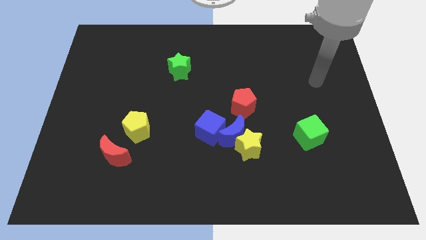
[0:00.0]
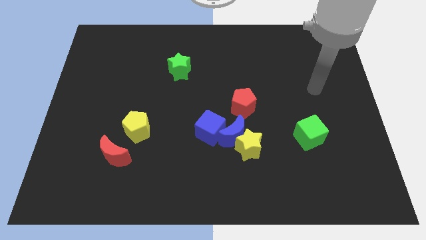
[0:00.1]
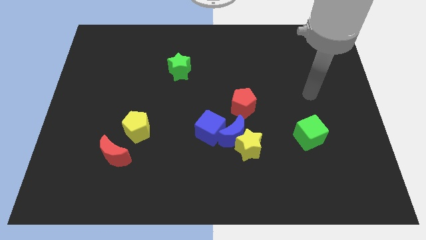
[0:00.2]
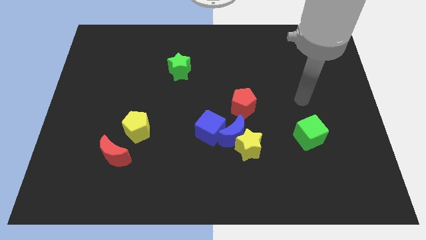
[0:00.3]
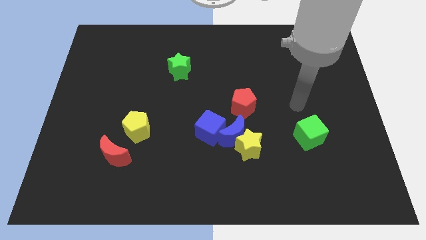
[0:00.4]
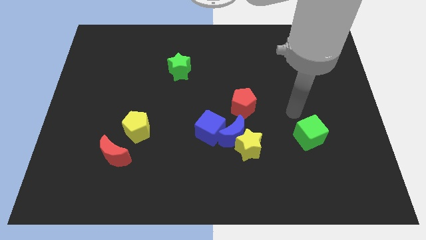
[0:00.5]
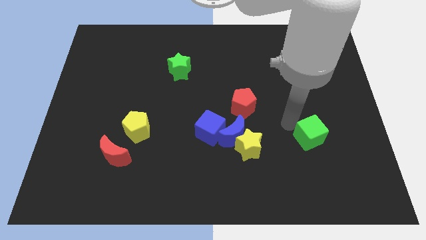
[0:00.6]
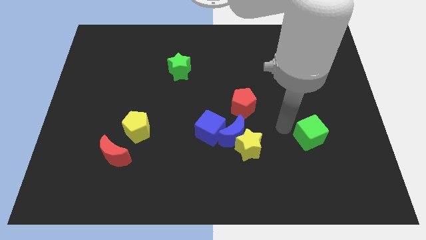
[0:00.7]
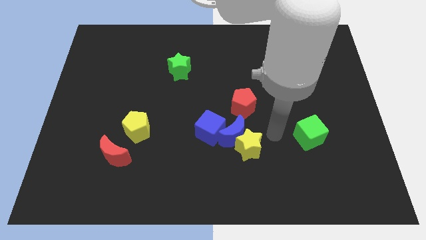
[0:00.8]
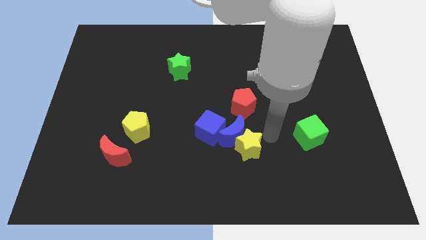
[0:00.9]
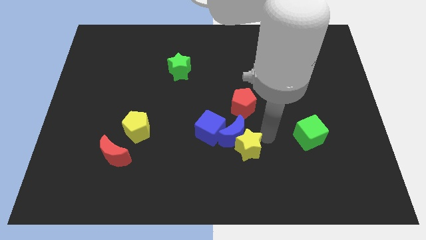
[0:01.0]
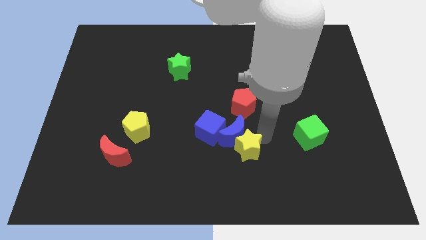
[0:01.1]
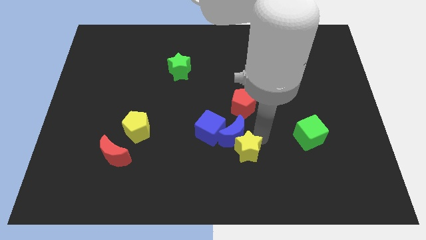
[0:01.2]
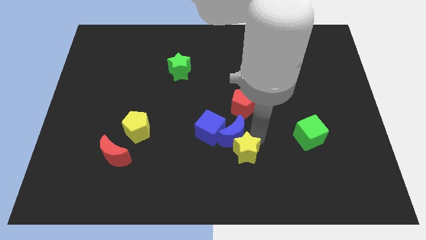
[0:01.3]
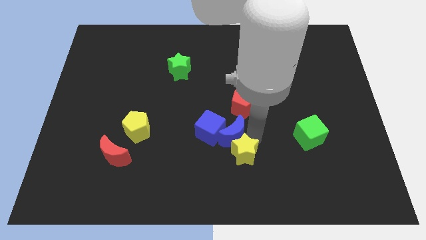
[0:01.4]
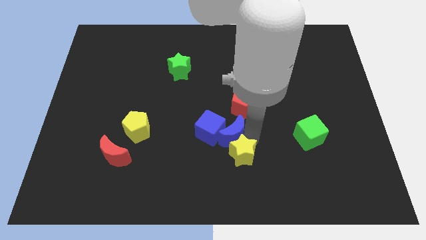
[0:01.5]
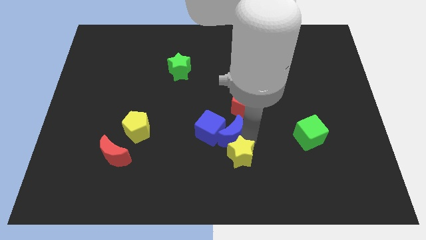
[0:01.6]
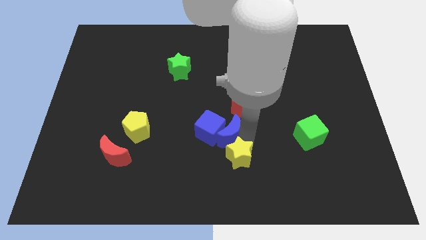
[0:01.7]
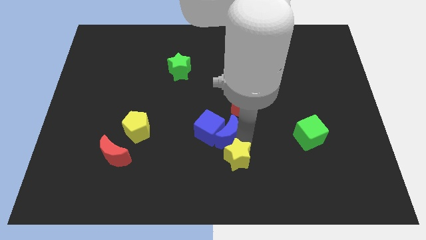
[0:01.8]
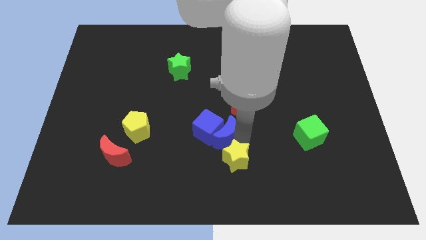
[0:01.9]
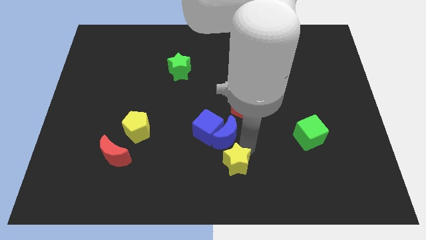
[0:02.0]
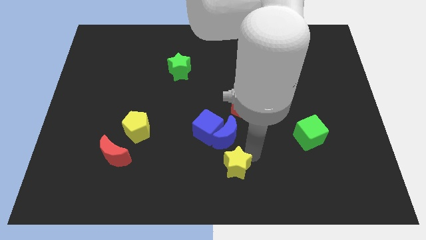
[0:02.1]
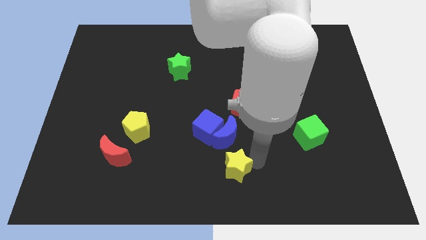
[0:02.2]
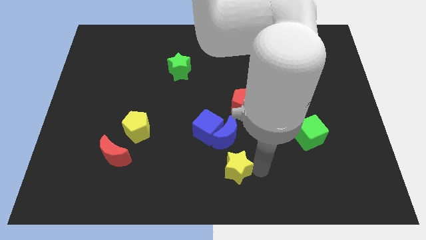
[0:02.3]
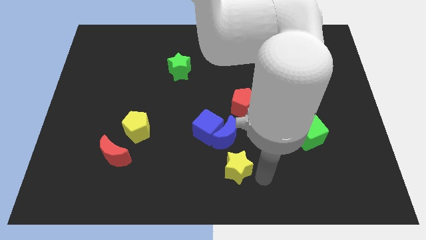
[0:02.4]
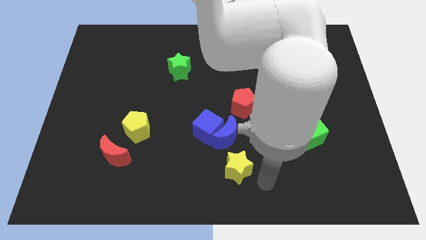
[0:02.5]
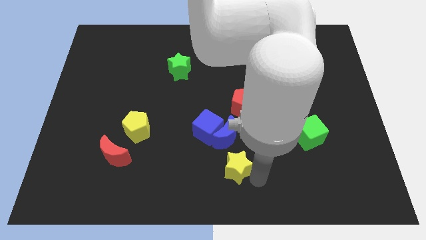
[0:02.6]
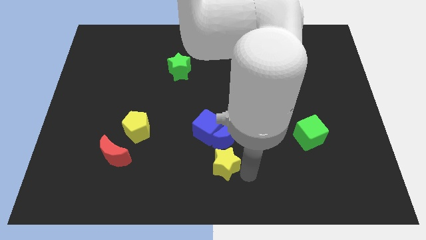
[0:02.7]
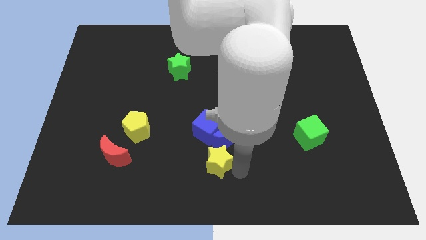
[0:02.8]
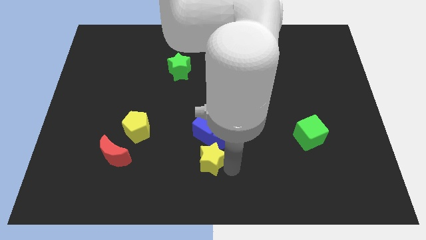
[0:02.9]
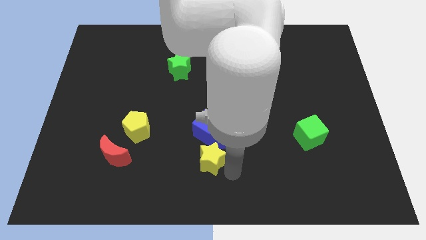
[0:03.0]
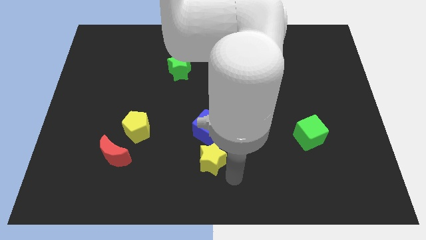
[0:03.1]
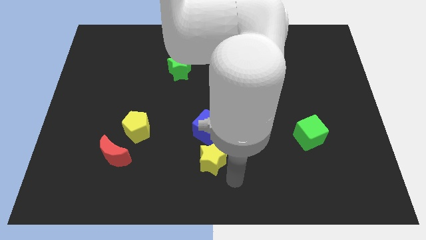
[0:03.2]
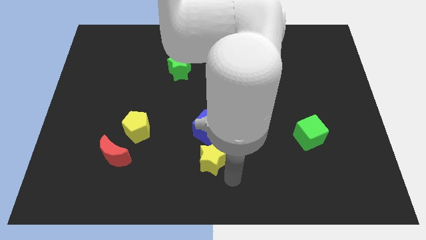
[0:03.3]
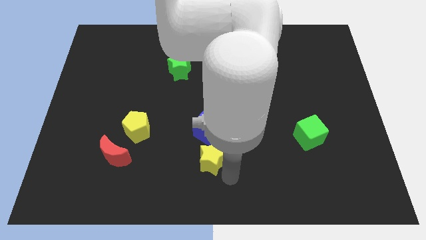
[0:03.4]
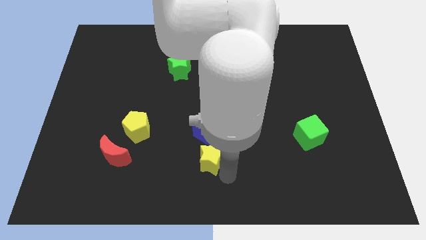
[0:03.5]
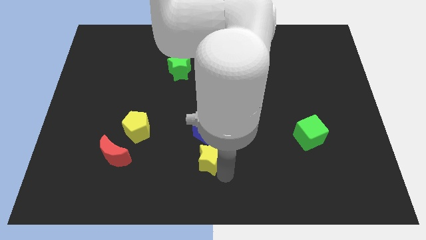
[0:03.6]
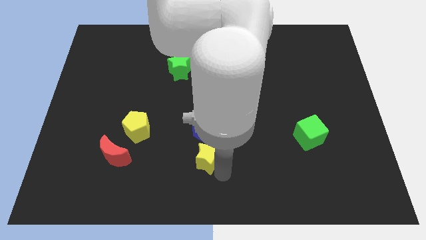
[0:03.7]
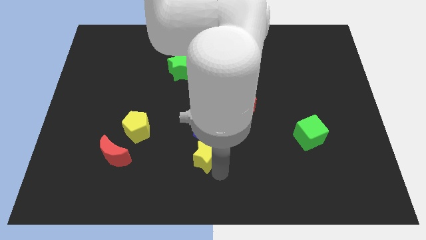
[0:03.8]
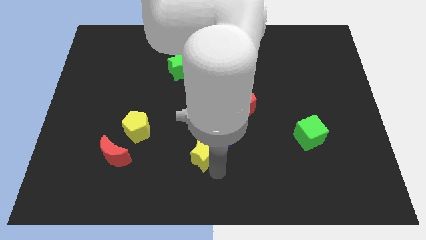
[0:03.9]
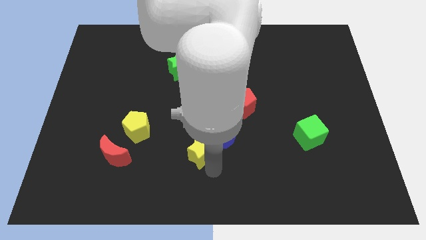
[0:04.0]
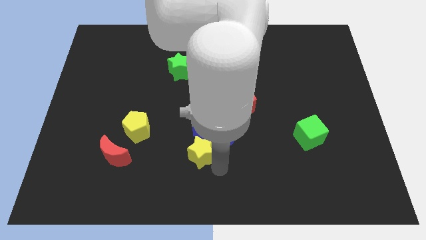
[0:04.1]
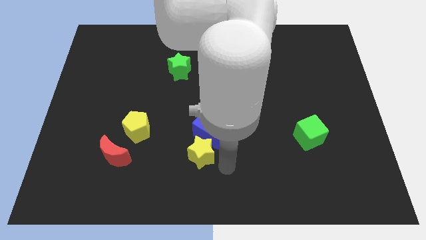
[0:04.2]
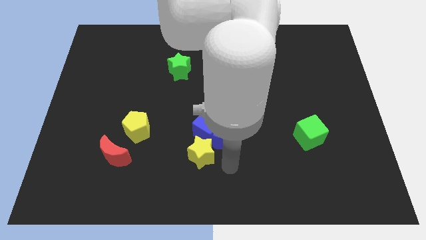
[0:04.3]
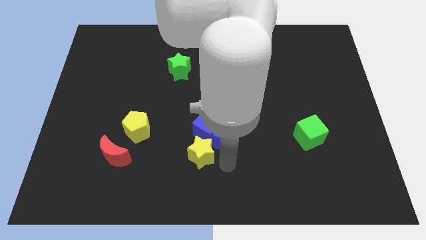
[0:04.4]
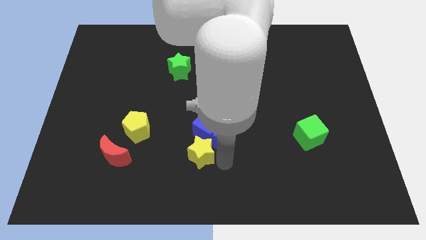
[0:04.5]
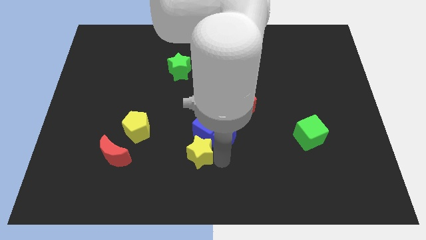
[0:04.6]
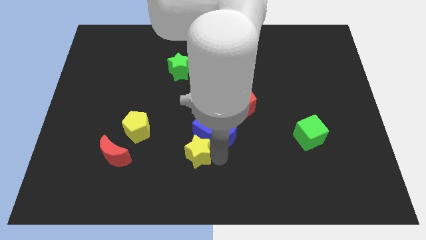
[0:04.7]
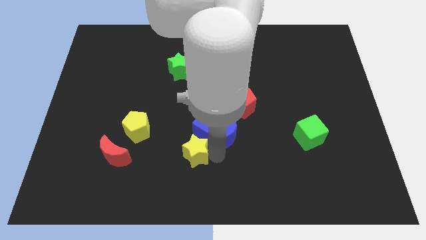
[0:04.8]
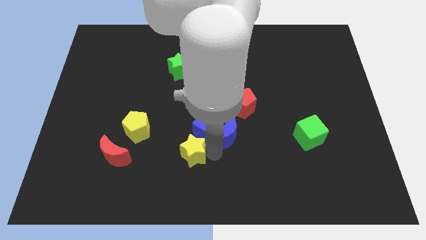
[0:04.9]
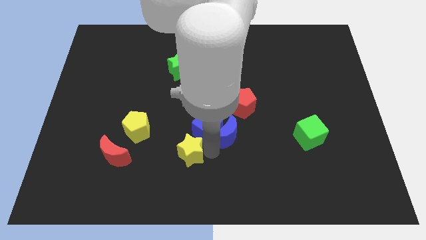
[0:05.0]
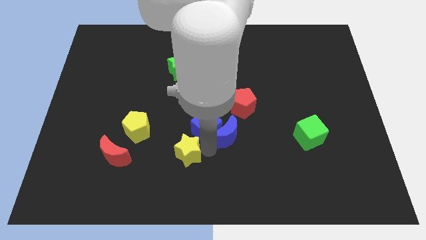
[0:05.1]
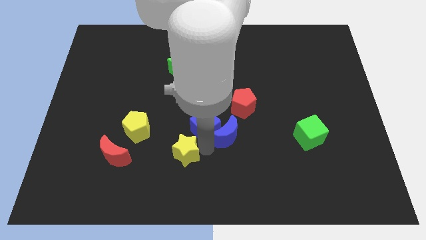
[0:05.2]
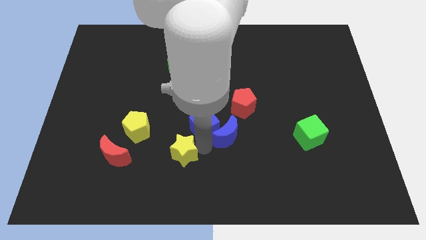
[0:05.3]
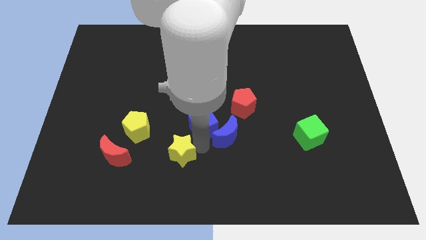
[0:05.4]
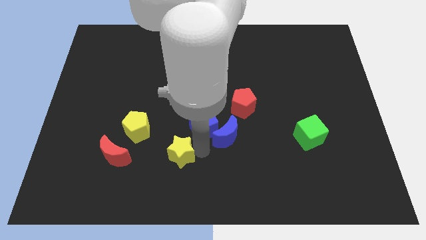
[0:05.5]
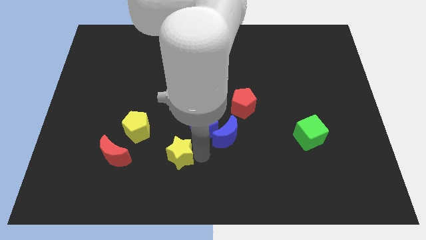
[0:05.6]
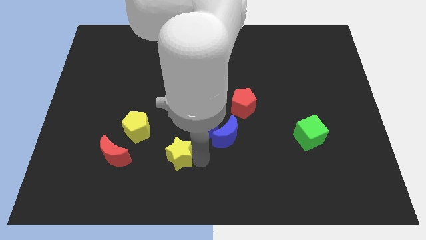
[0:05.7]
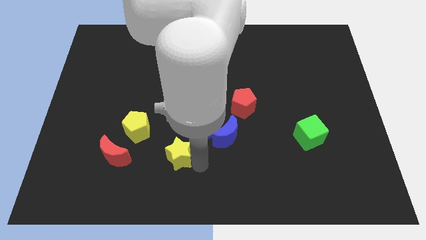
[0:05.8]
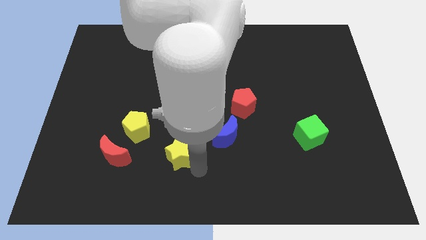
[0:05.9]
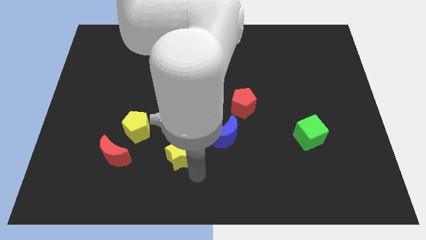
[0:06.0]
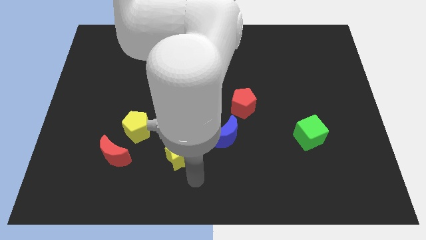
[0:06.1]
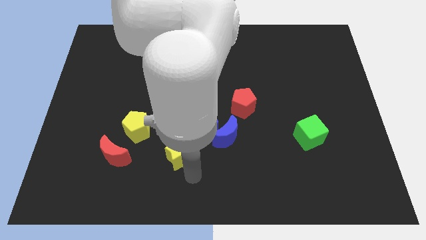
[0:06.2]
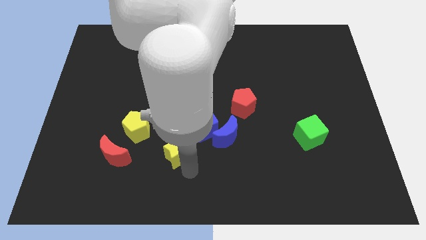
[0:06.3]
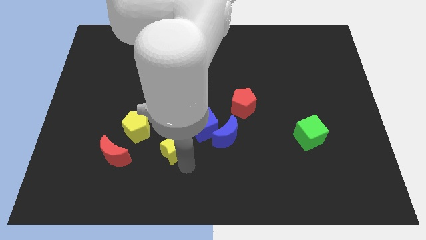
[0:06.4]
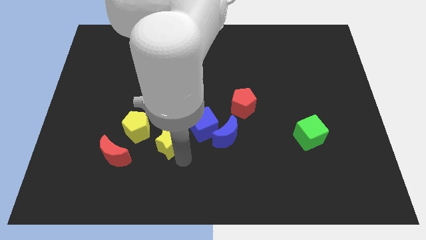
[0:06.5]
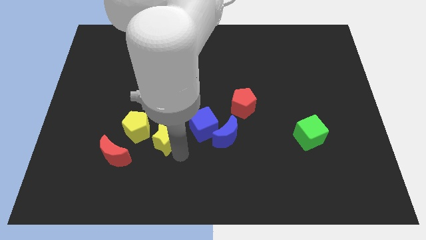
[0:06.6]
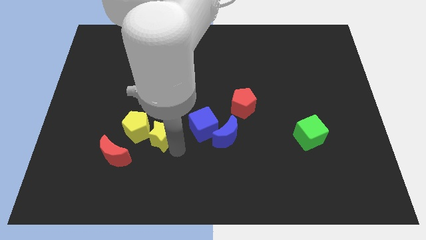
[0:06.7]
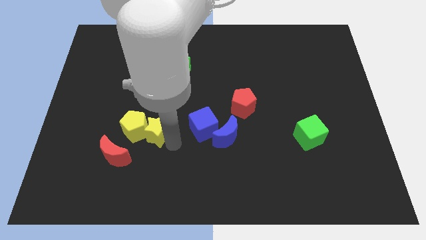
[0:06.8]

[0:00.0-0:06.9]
move the yellow star towards the yellow pentagon
